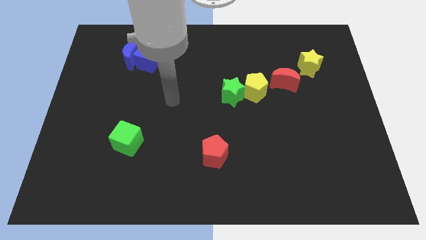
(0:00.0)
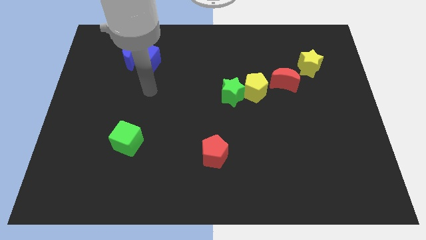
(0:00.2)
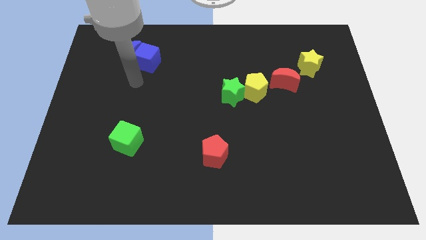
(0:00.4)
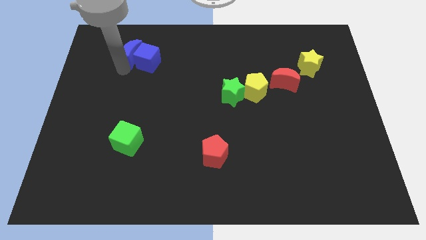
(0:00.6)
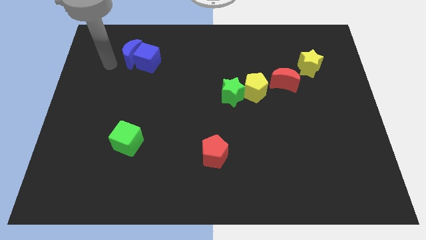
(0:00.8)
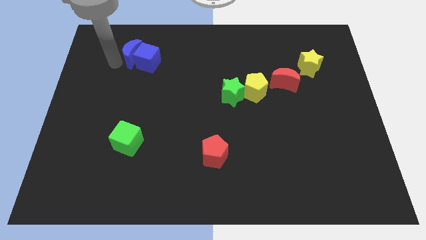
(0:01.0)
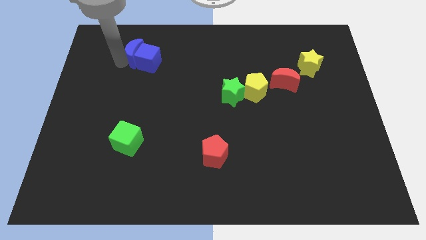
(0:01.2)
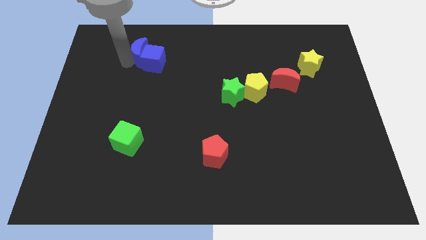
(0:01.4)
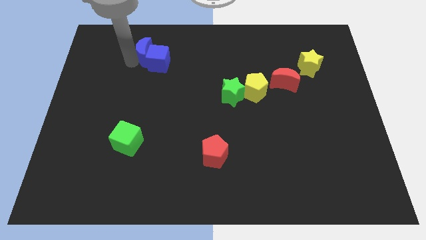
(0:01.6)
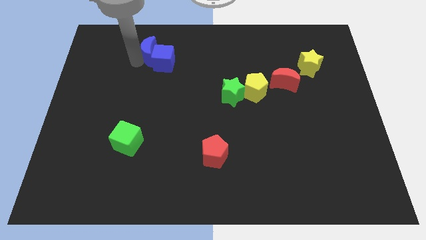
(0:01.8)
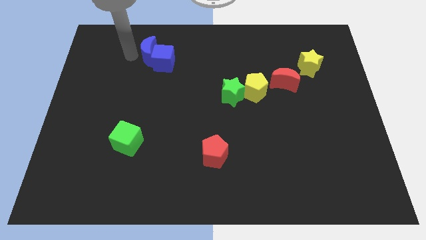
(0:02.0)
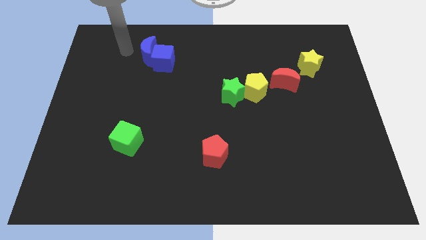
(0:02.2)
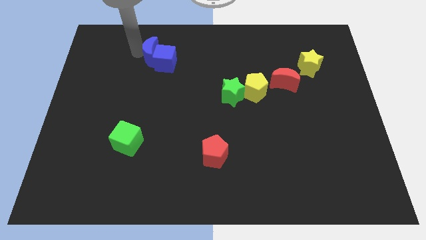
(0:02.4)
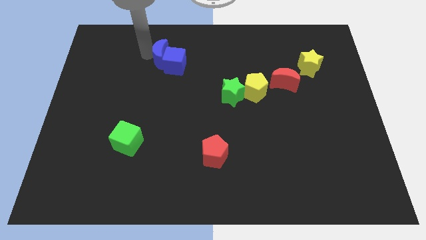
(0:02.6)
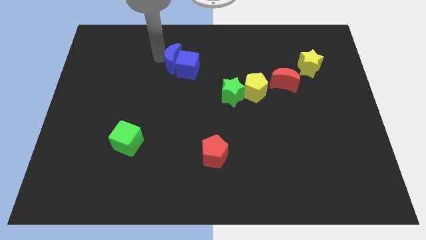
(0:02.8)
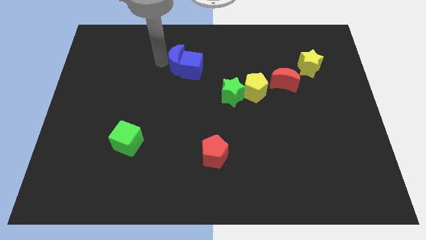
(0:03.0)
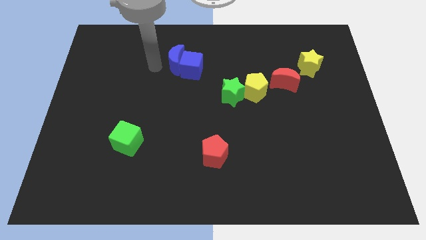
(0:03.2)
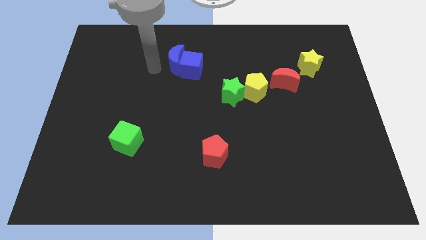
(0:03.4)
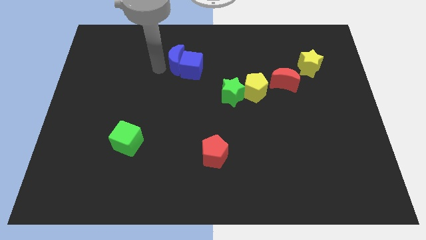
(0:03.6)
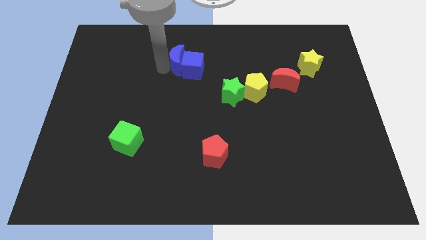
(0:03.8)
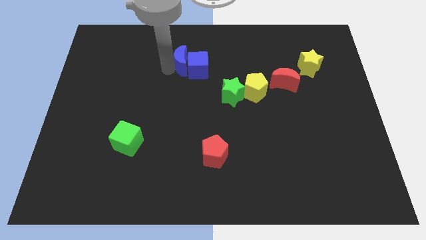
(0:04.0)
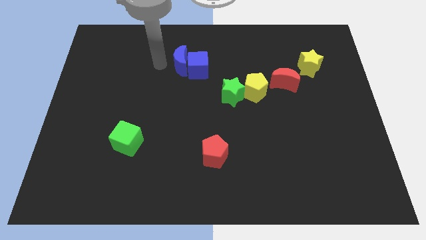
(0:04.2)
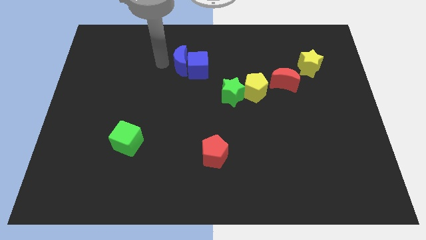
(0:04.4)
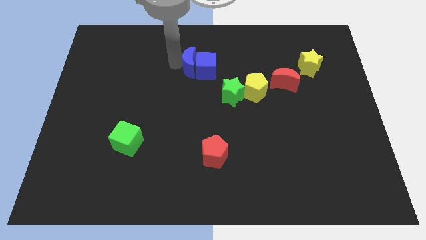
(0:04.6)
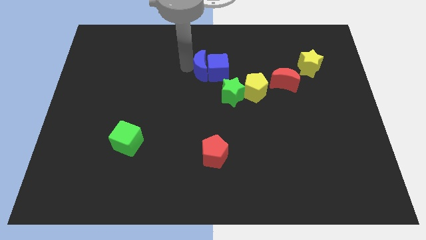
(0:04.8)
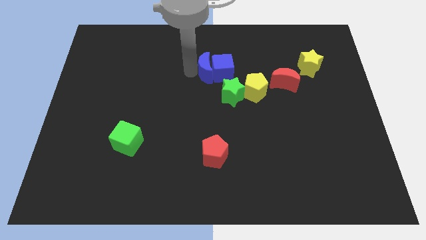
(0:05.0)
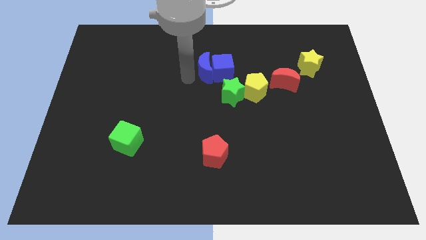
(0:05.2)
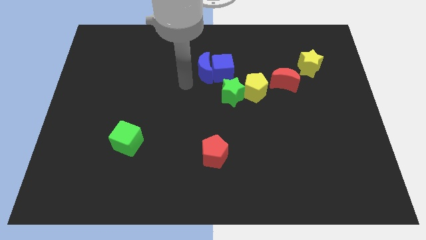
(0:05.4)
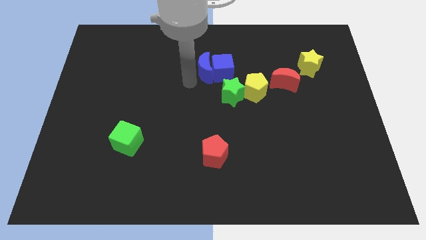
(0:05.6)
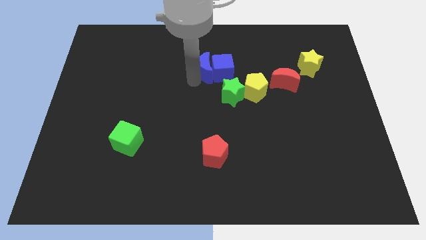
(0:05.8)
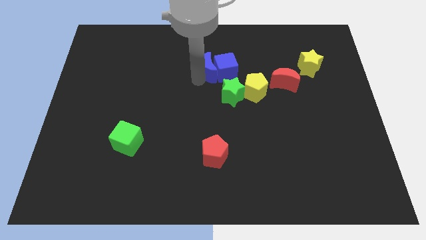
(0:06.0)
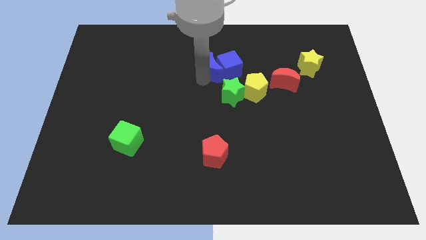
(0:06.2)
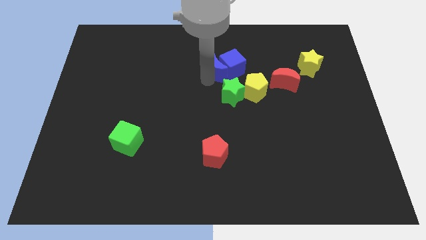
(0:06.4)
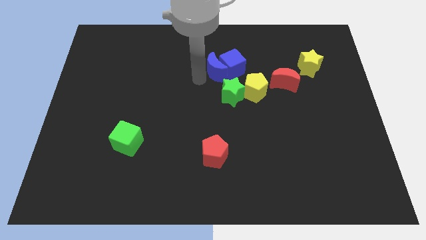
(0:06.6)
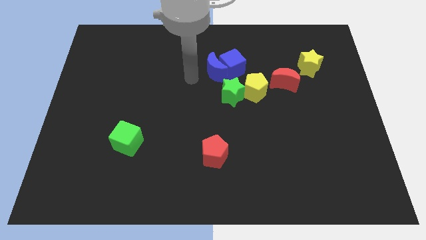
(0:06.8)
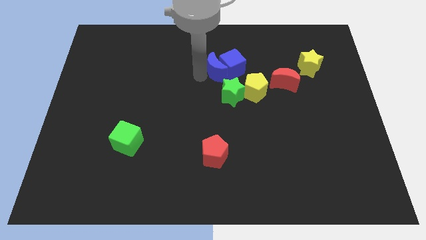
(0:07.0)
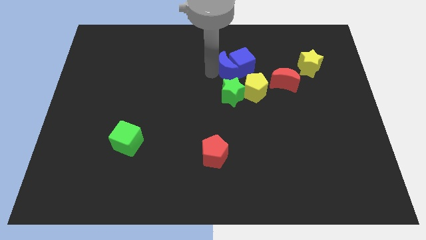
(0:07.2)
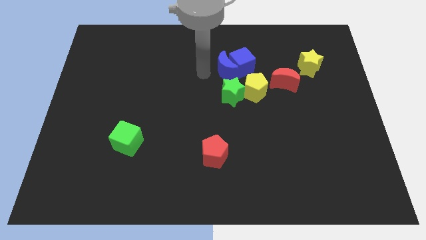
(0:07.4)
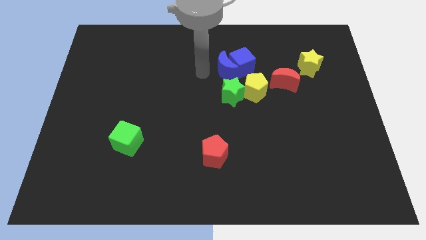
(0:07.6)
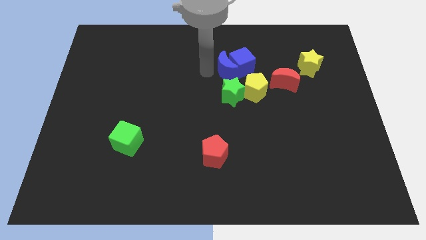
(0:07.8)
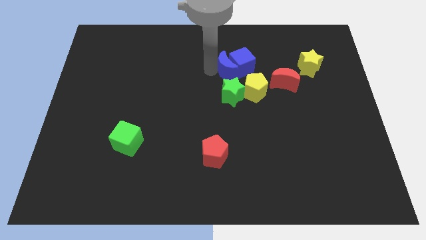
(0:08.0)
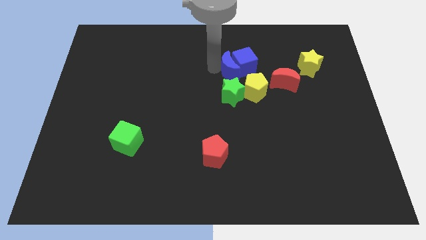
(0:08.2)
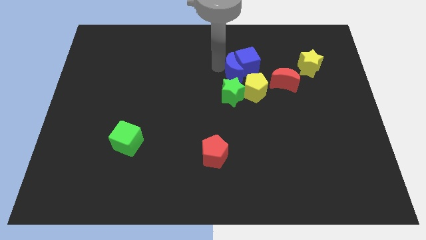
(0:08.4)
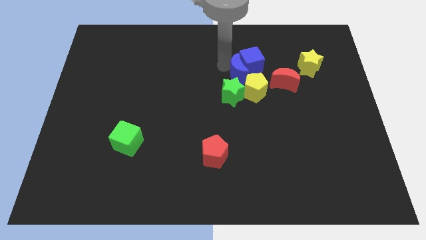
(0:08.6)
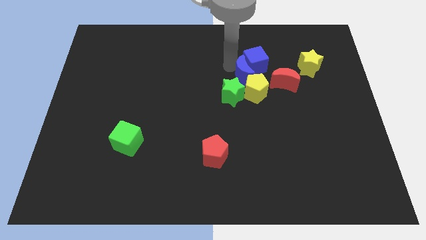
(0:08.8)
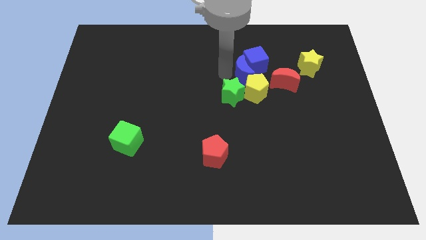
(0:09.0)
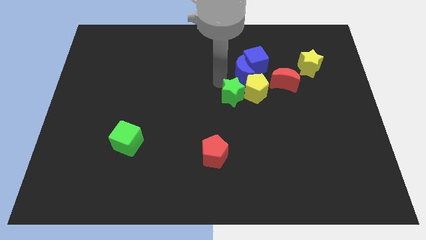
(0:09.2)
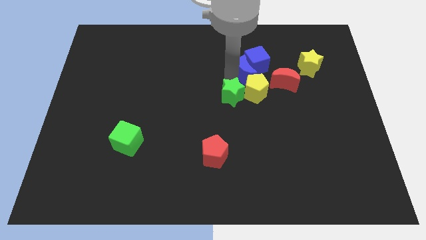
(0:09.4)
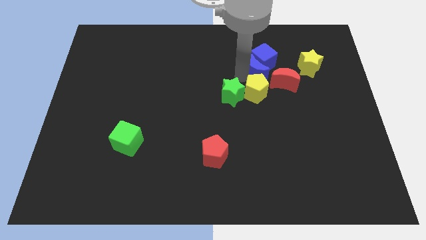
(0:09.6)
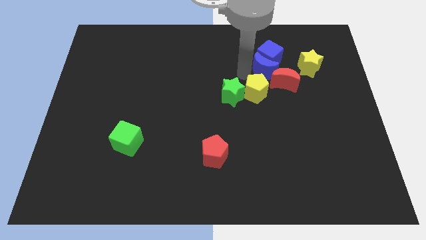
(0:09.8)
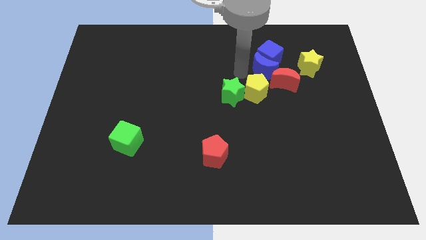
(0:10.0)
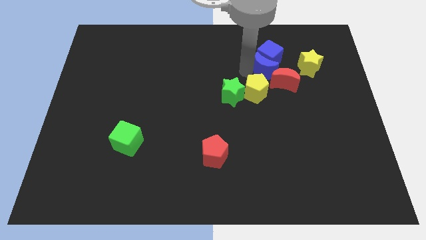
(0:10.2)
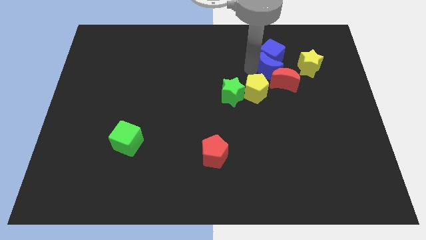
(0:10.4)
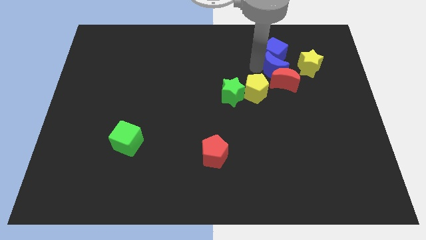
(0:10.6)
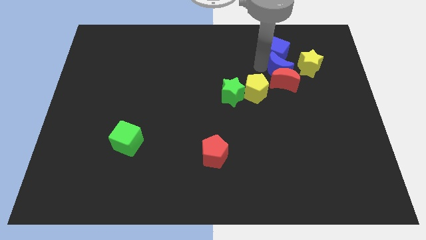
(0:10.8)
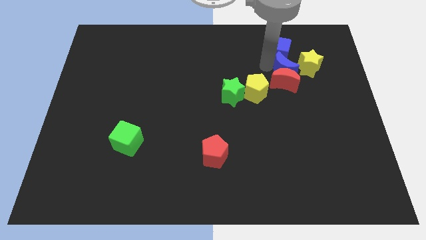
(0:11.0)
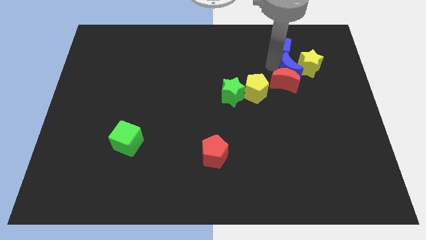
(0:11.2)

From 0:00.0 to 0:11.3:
put the blue moon to the yellow star

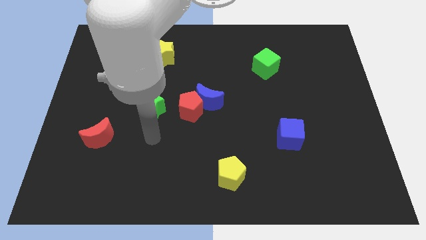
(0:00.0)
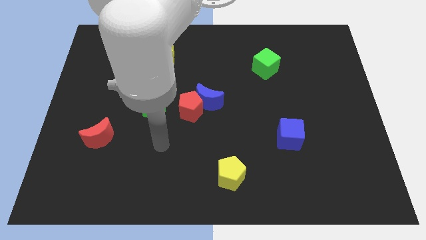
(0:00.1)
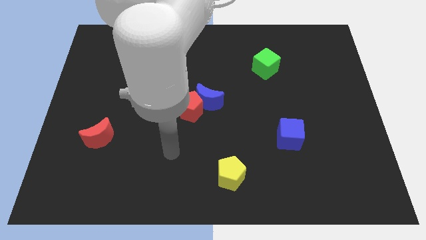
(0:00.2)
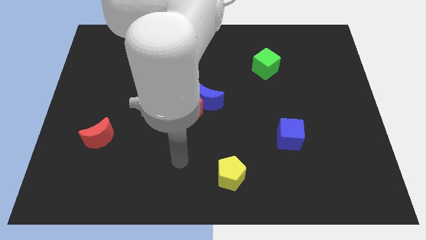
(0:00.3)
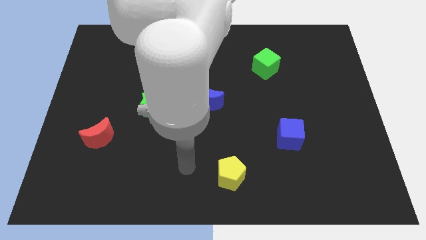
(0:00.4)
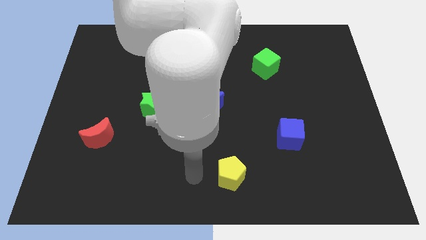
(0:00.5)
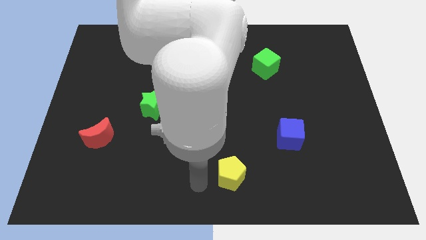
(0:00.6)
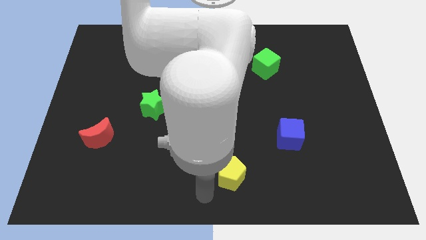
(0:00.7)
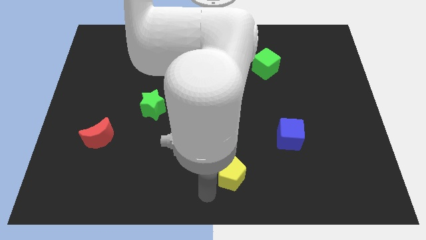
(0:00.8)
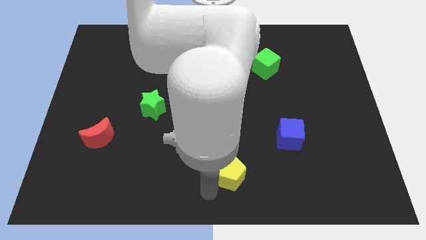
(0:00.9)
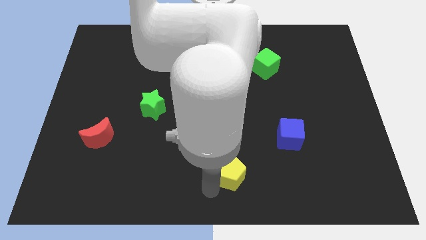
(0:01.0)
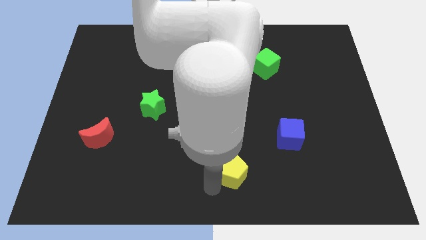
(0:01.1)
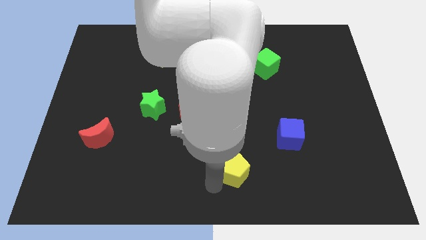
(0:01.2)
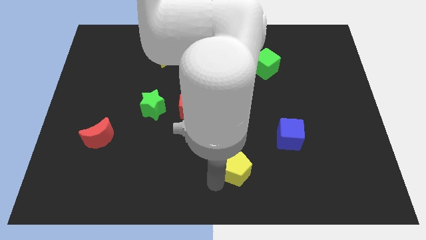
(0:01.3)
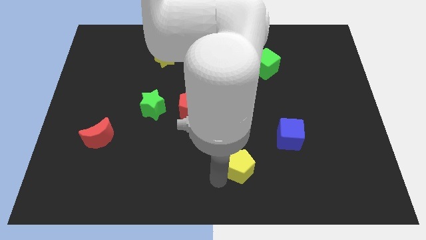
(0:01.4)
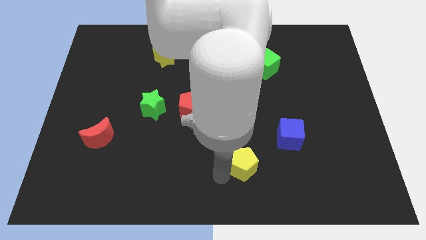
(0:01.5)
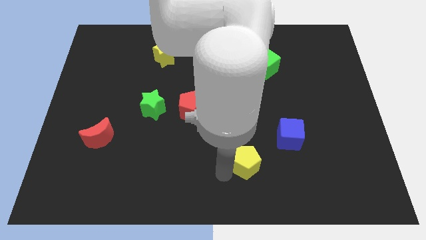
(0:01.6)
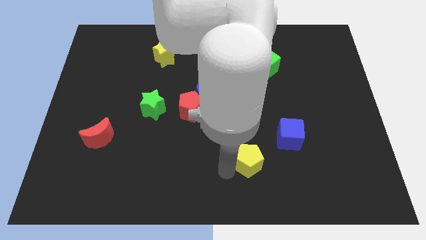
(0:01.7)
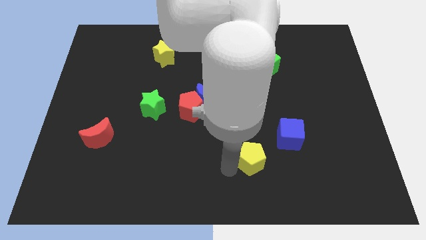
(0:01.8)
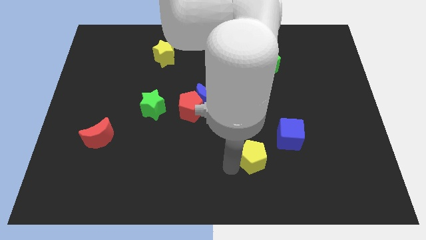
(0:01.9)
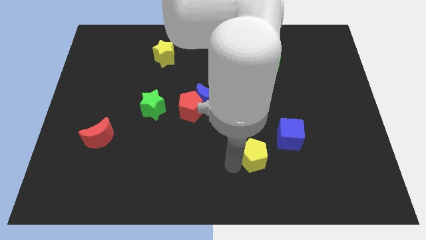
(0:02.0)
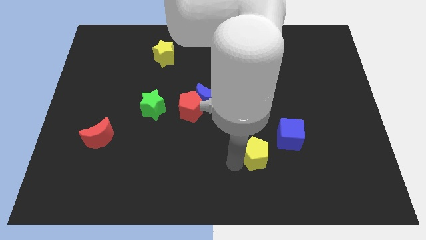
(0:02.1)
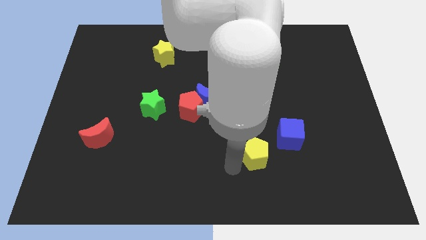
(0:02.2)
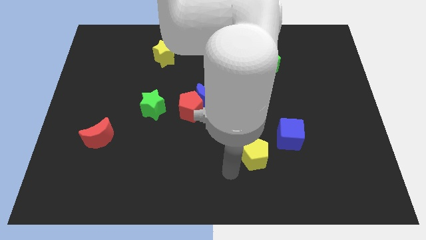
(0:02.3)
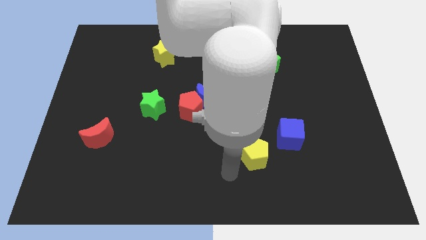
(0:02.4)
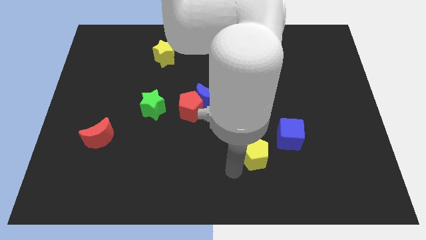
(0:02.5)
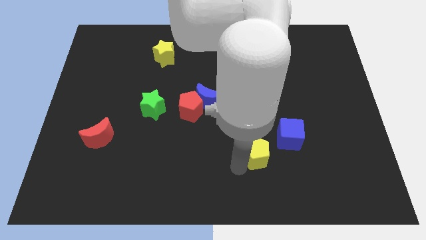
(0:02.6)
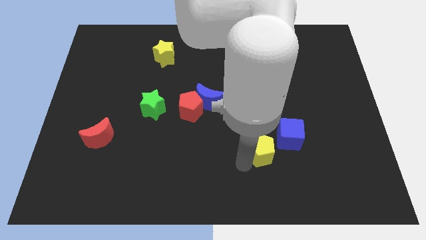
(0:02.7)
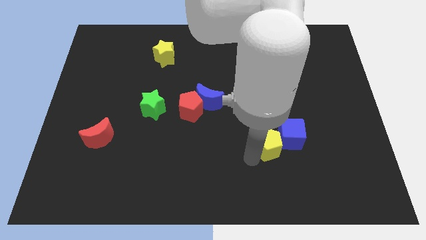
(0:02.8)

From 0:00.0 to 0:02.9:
push the yellow pentagon close to the blue cube
